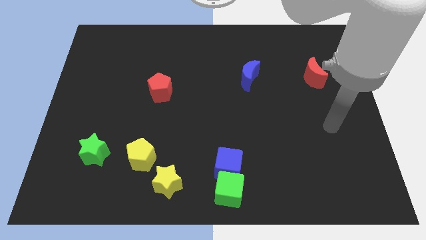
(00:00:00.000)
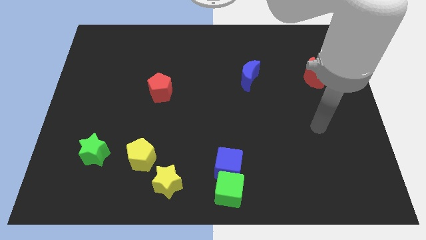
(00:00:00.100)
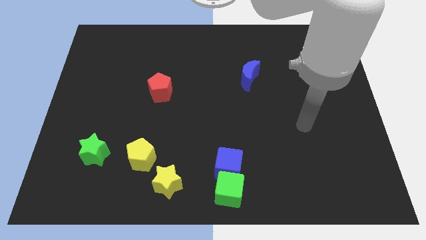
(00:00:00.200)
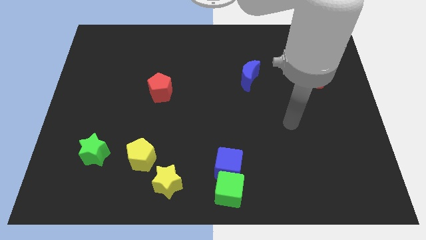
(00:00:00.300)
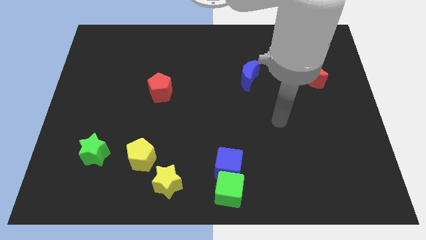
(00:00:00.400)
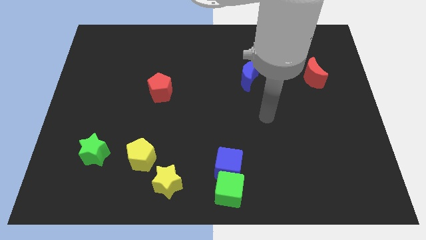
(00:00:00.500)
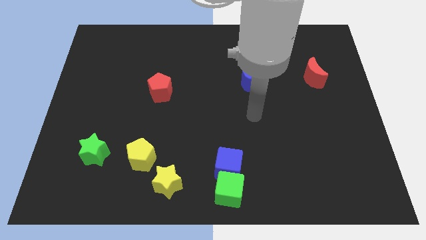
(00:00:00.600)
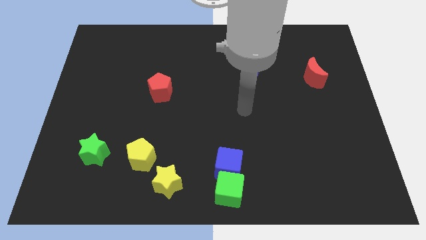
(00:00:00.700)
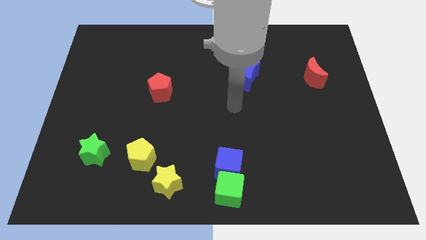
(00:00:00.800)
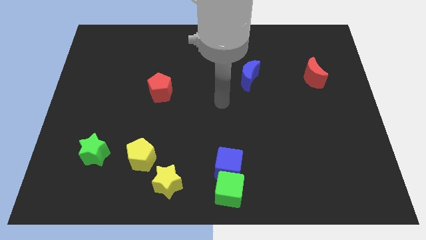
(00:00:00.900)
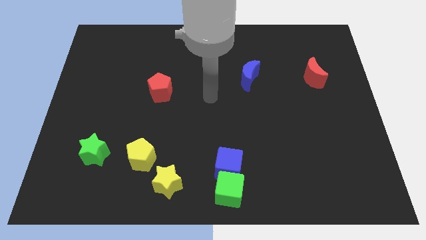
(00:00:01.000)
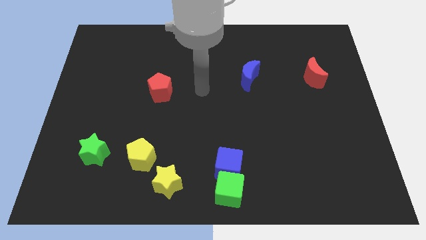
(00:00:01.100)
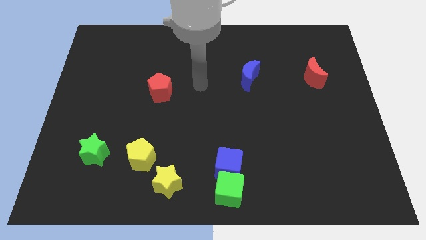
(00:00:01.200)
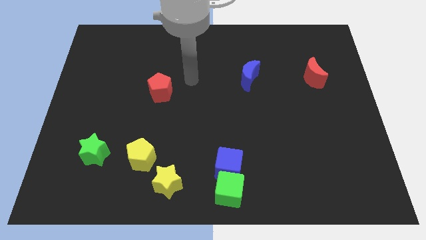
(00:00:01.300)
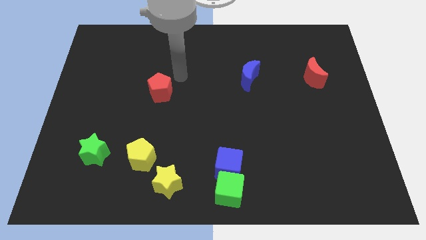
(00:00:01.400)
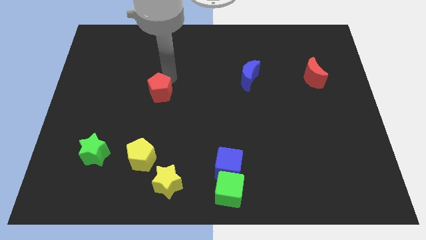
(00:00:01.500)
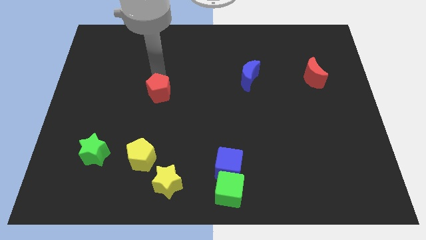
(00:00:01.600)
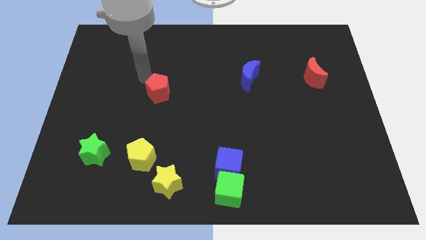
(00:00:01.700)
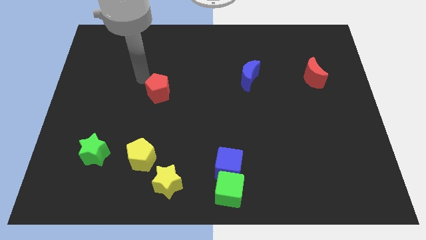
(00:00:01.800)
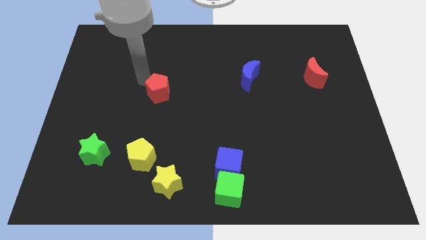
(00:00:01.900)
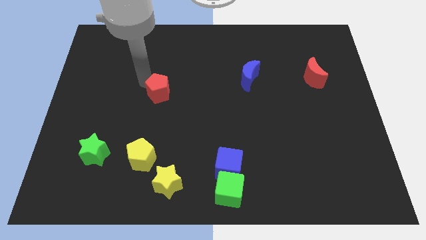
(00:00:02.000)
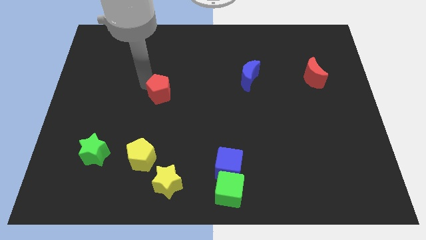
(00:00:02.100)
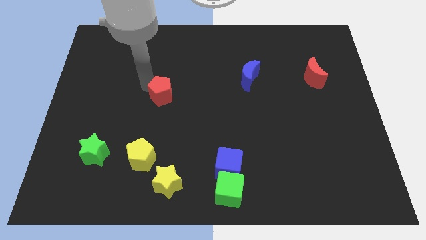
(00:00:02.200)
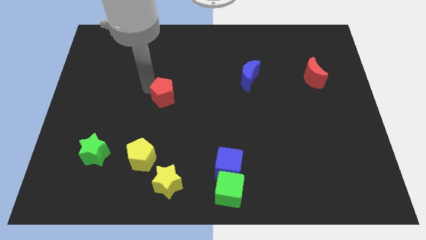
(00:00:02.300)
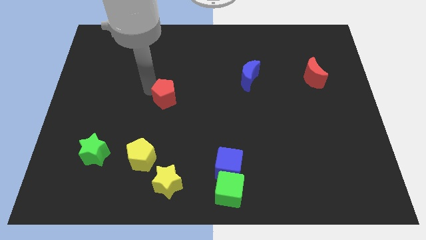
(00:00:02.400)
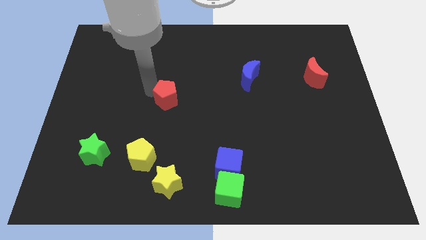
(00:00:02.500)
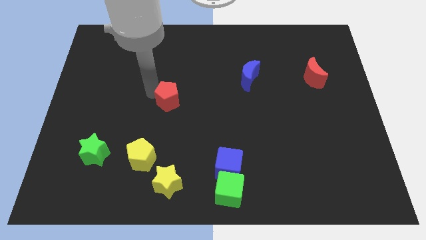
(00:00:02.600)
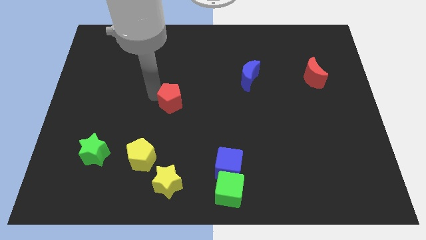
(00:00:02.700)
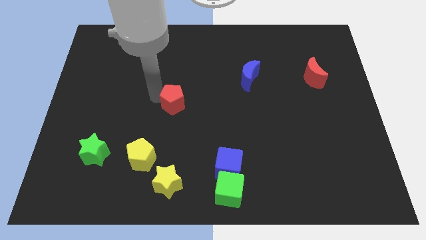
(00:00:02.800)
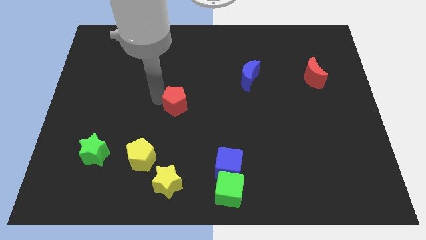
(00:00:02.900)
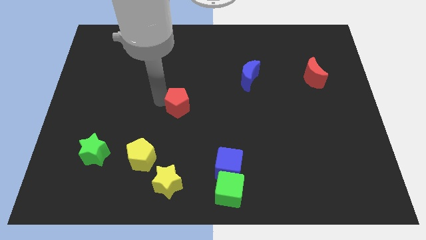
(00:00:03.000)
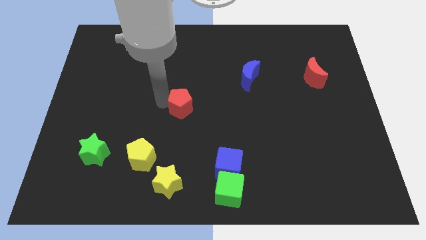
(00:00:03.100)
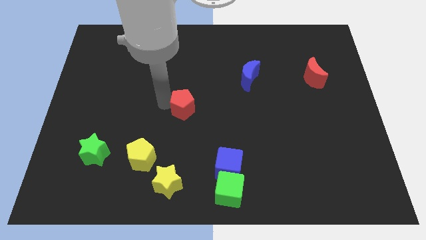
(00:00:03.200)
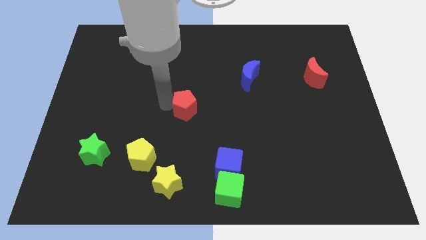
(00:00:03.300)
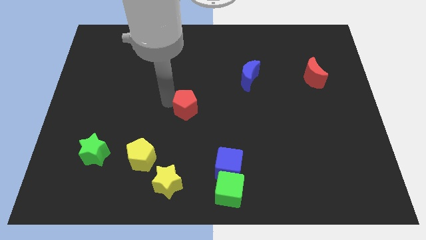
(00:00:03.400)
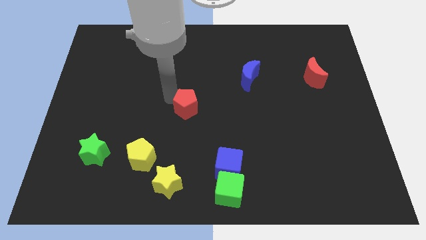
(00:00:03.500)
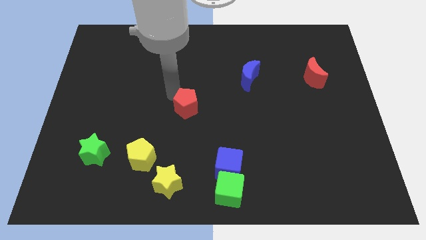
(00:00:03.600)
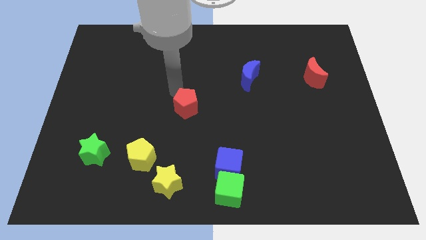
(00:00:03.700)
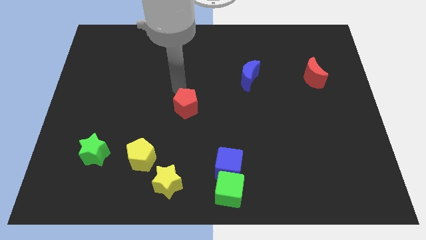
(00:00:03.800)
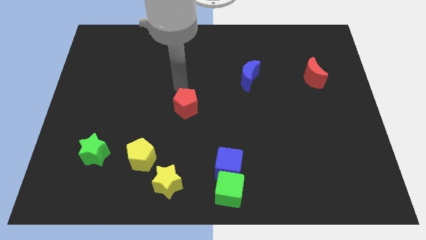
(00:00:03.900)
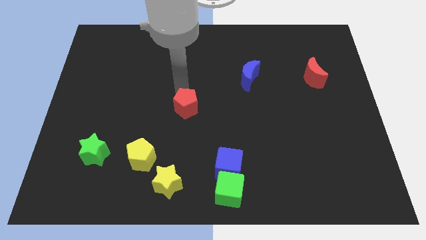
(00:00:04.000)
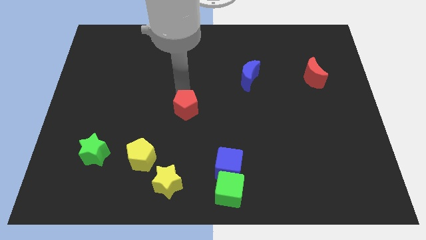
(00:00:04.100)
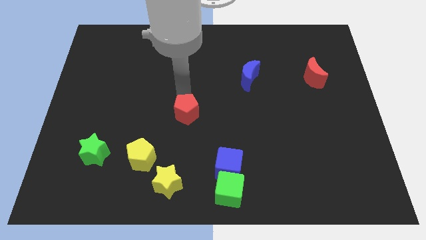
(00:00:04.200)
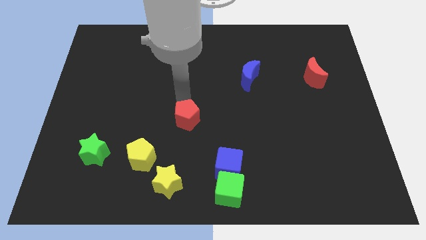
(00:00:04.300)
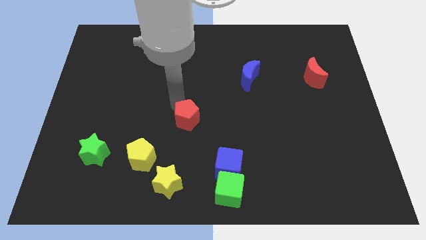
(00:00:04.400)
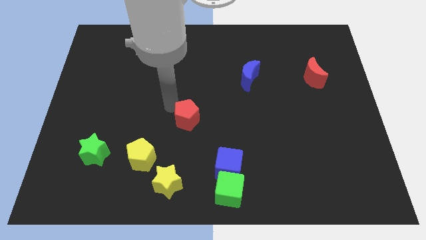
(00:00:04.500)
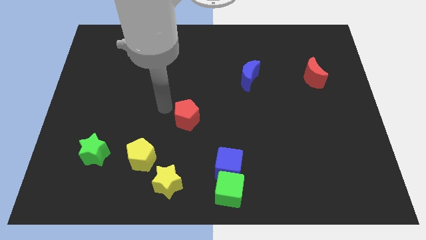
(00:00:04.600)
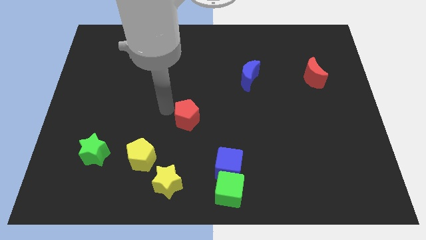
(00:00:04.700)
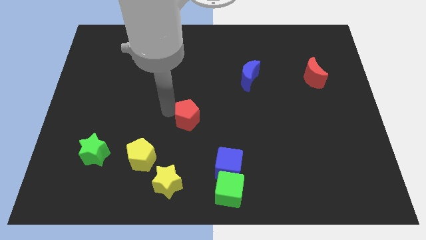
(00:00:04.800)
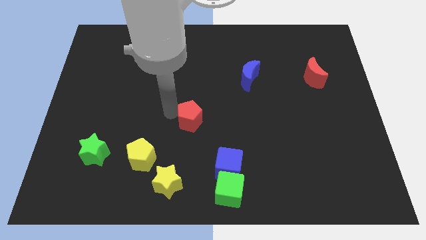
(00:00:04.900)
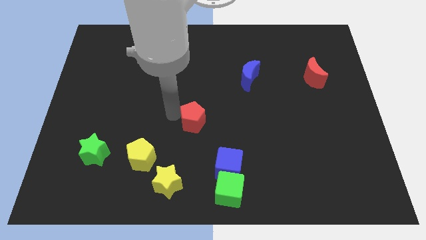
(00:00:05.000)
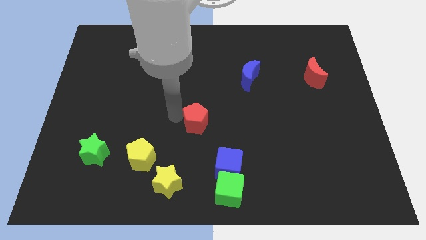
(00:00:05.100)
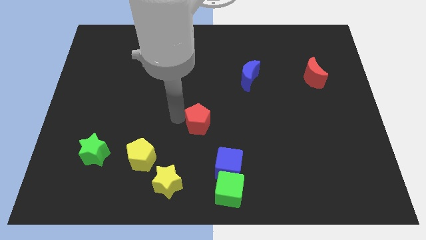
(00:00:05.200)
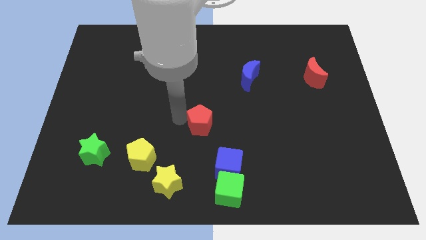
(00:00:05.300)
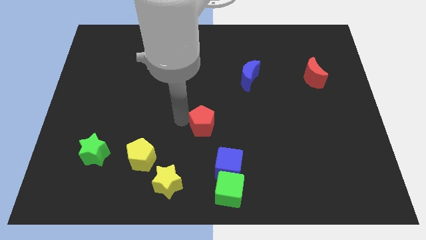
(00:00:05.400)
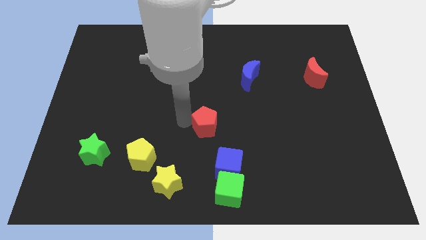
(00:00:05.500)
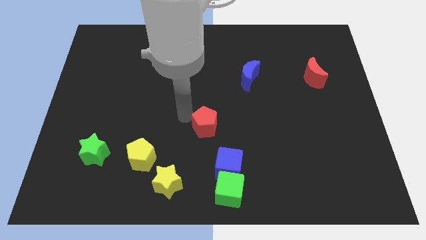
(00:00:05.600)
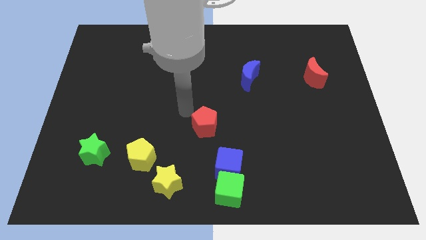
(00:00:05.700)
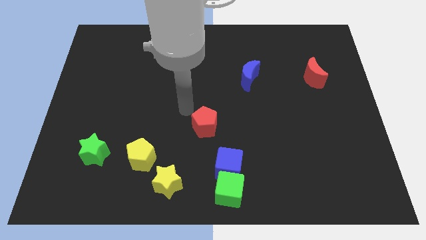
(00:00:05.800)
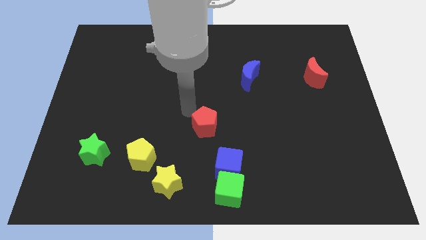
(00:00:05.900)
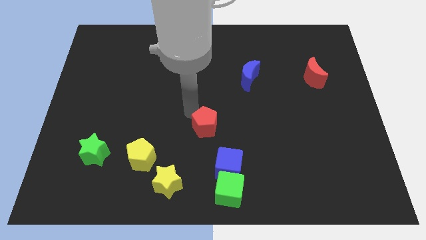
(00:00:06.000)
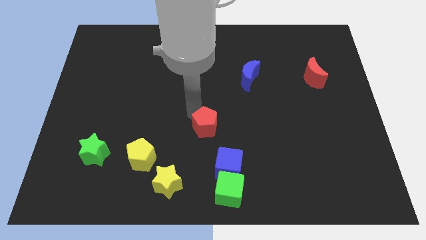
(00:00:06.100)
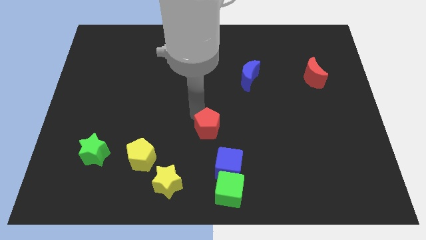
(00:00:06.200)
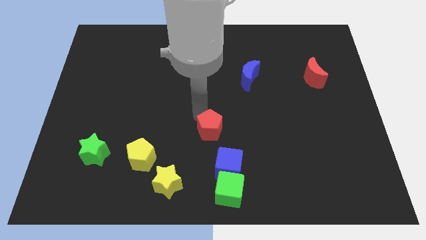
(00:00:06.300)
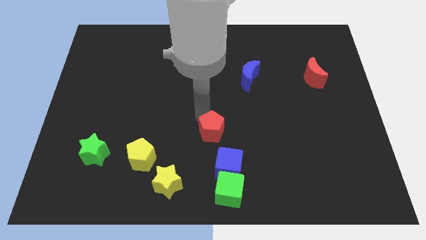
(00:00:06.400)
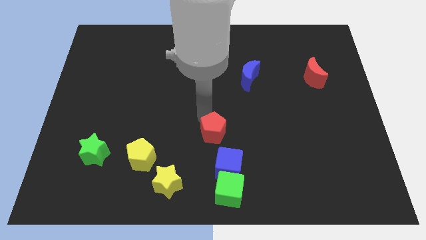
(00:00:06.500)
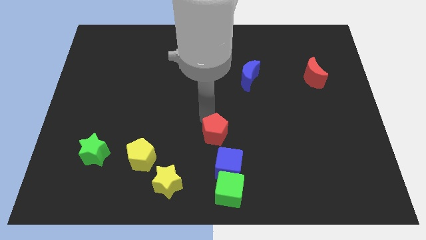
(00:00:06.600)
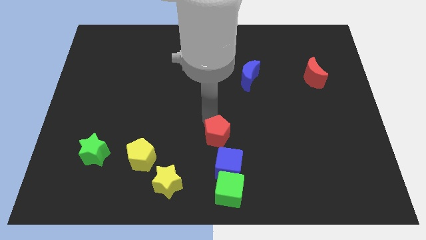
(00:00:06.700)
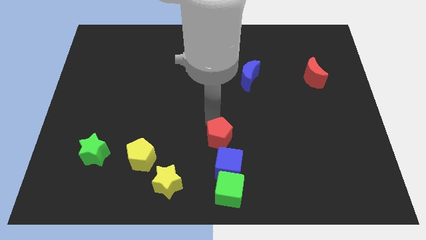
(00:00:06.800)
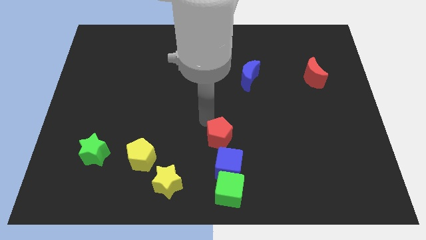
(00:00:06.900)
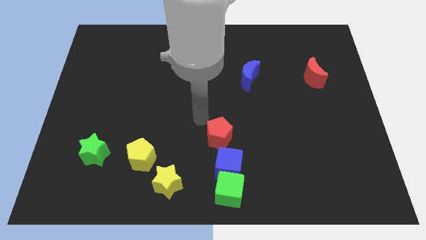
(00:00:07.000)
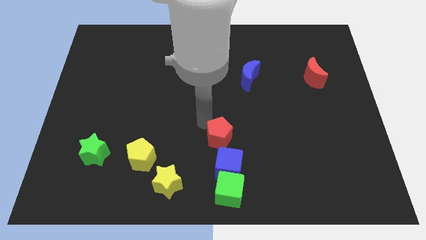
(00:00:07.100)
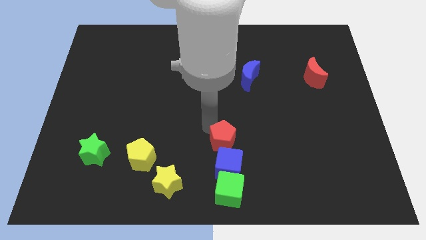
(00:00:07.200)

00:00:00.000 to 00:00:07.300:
slide the red pentagon diagonally down and right

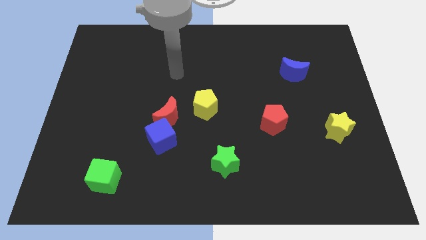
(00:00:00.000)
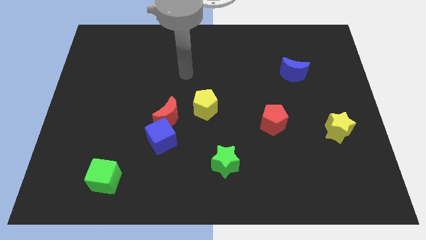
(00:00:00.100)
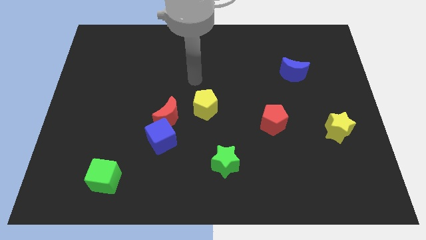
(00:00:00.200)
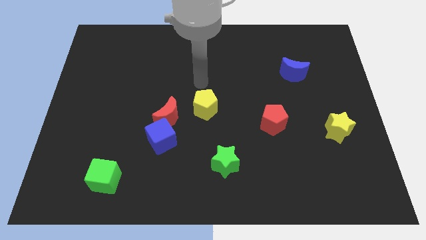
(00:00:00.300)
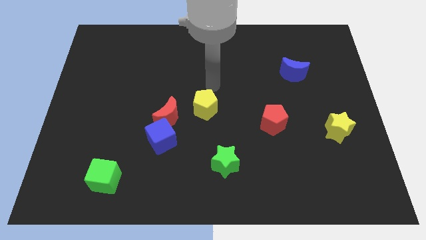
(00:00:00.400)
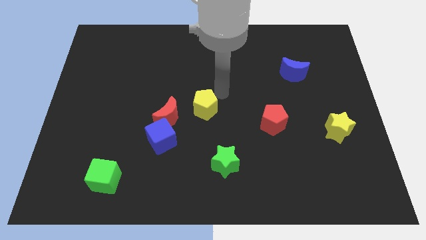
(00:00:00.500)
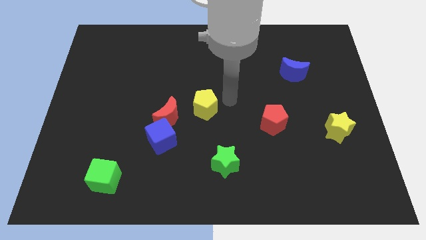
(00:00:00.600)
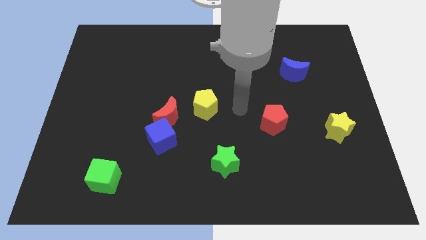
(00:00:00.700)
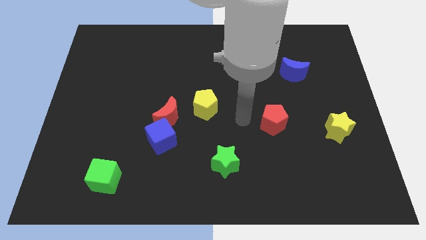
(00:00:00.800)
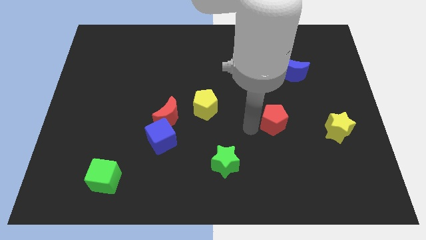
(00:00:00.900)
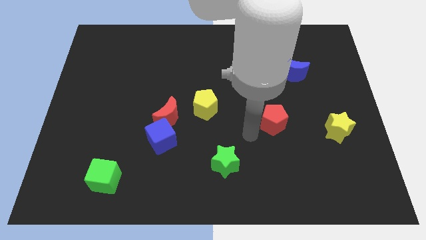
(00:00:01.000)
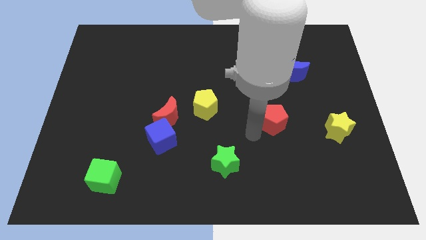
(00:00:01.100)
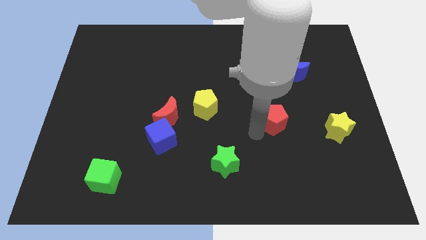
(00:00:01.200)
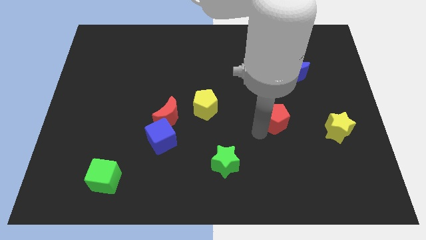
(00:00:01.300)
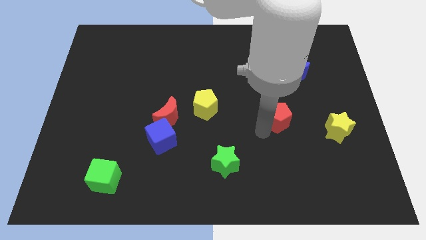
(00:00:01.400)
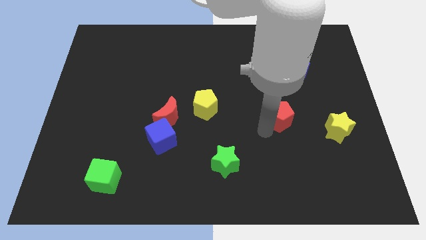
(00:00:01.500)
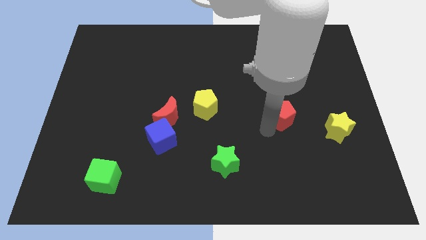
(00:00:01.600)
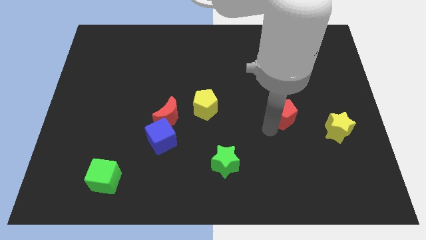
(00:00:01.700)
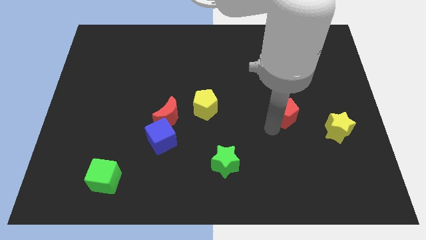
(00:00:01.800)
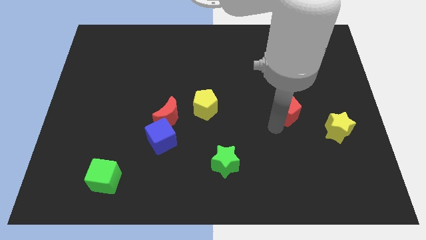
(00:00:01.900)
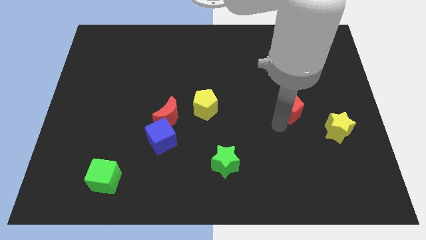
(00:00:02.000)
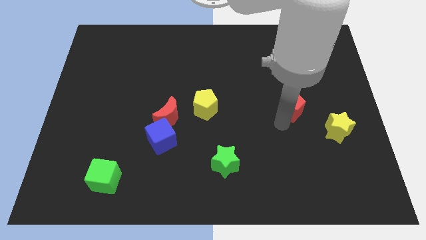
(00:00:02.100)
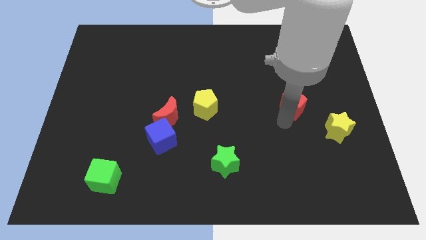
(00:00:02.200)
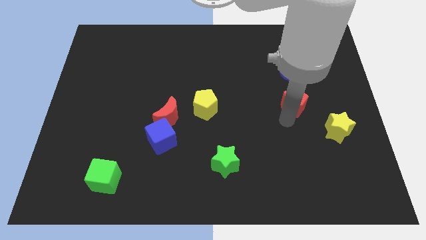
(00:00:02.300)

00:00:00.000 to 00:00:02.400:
slightly push the red pentagon diagonally up and right
